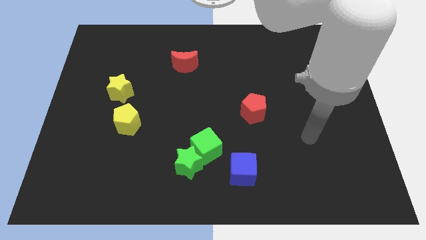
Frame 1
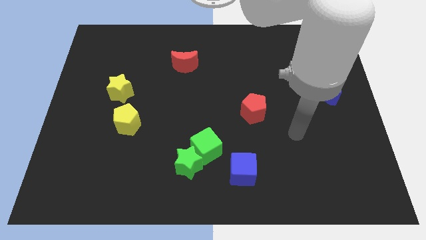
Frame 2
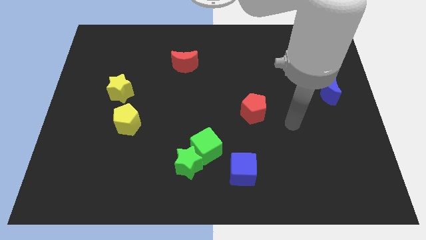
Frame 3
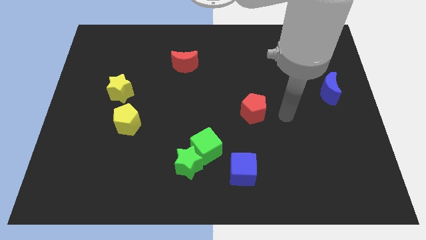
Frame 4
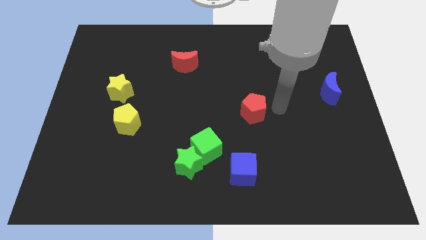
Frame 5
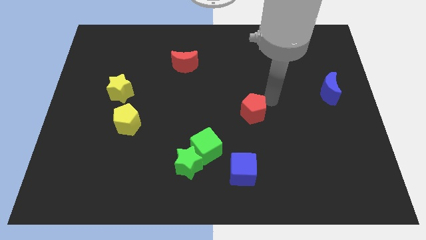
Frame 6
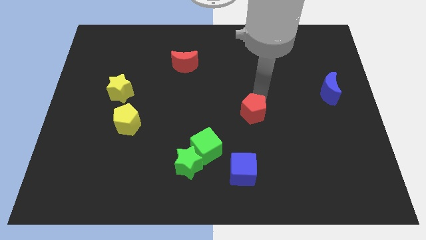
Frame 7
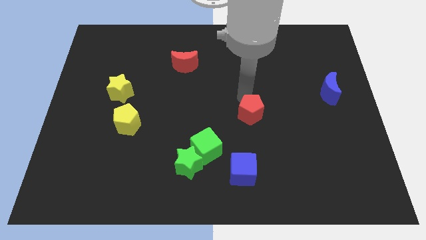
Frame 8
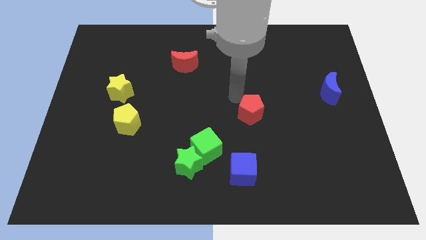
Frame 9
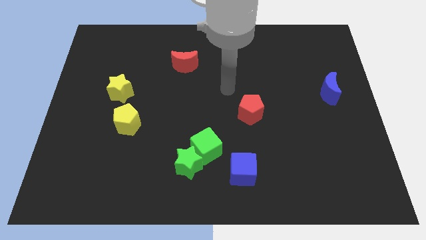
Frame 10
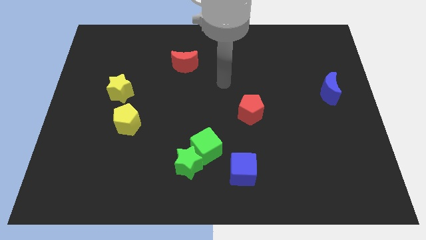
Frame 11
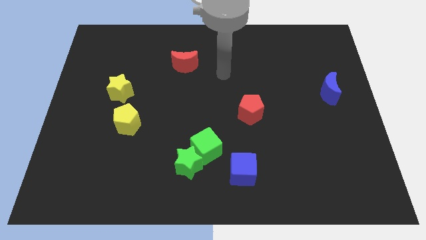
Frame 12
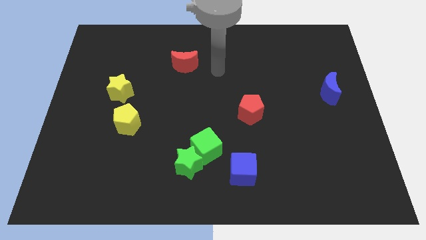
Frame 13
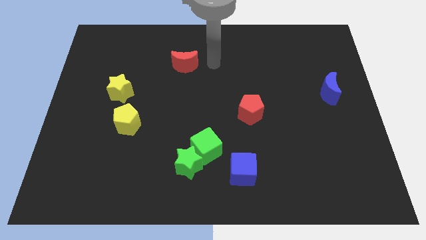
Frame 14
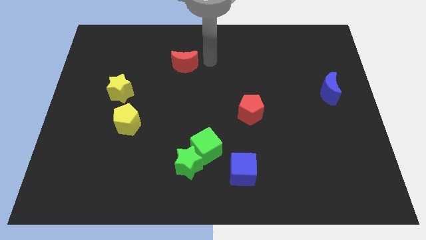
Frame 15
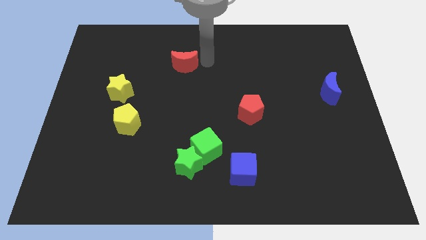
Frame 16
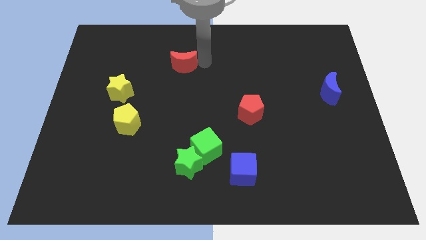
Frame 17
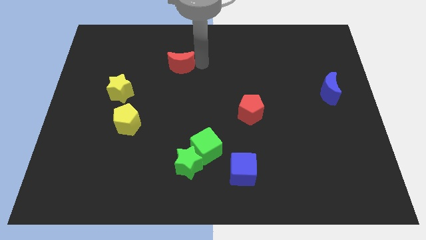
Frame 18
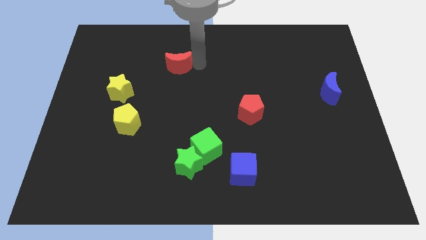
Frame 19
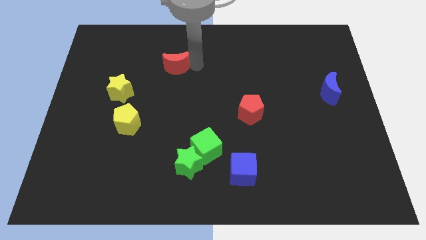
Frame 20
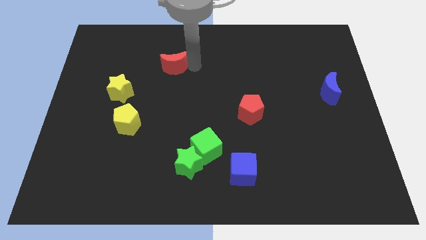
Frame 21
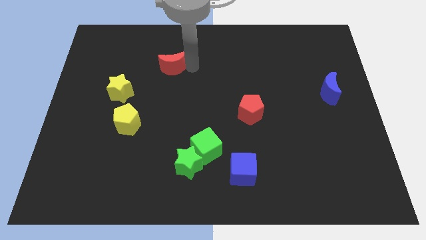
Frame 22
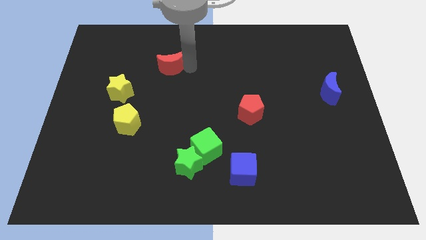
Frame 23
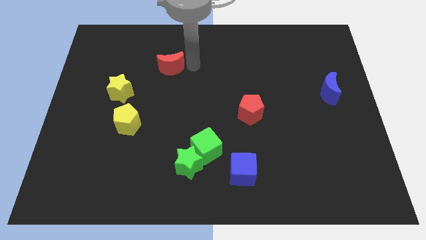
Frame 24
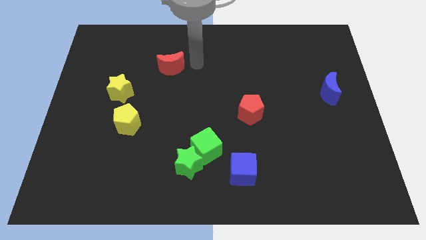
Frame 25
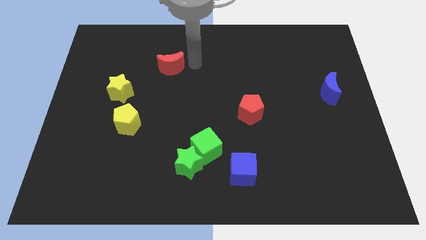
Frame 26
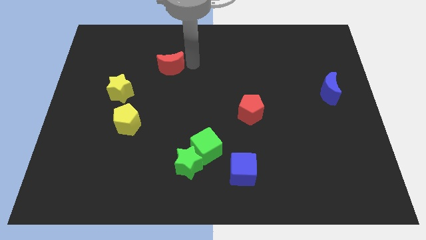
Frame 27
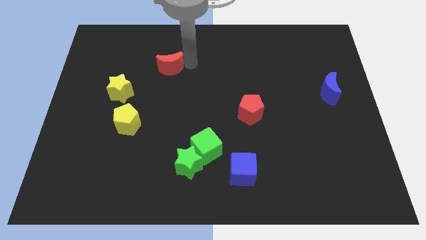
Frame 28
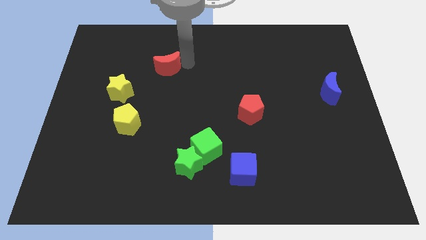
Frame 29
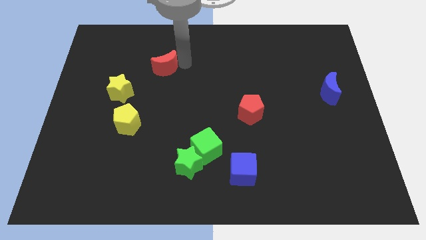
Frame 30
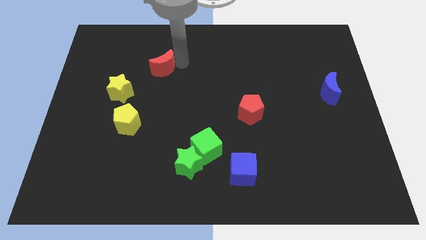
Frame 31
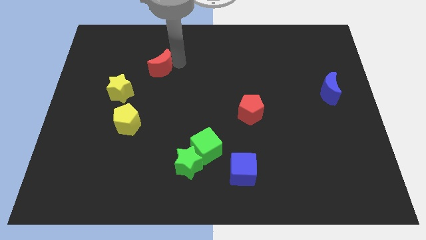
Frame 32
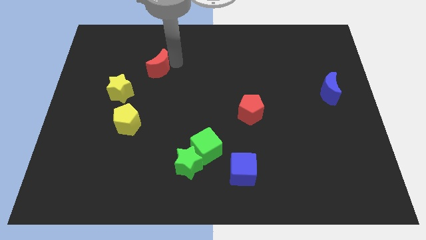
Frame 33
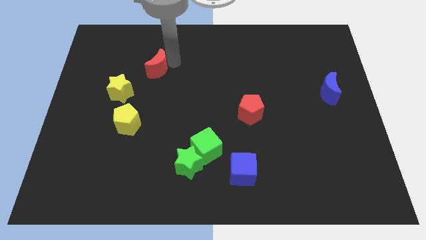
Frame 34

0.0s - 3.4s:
slide the red moon left a bit

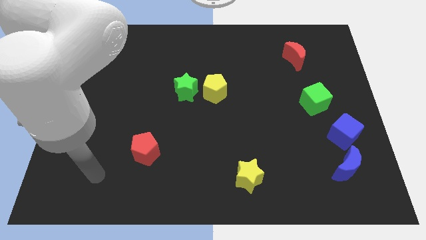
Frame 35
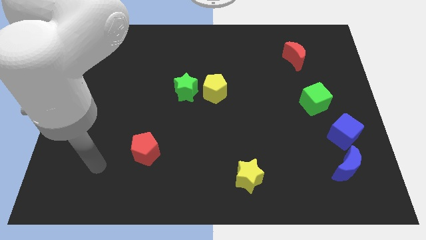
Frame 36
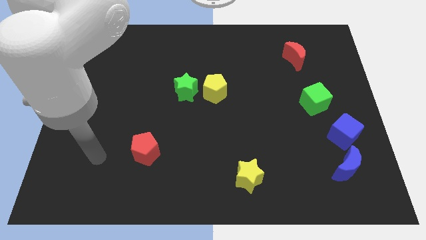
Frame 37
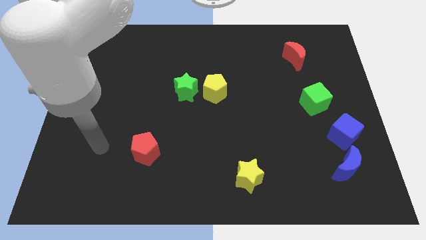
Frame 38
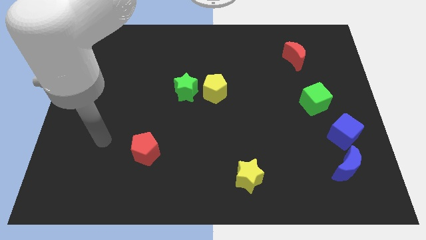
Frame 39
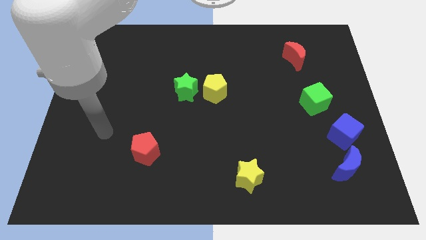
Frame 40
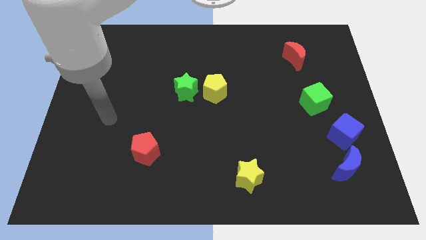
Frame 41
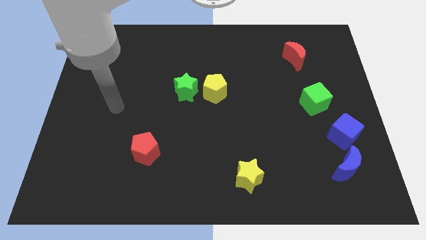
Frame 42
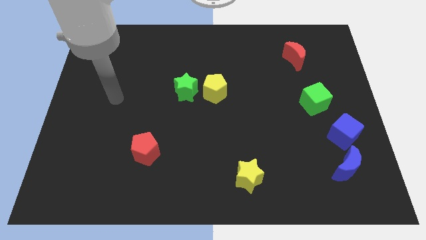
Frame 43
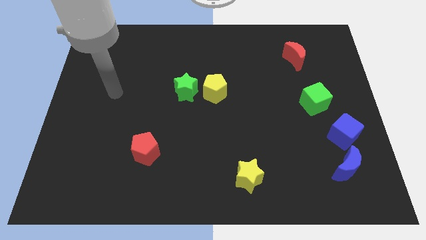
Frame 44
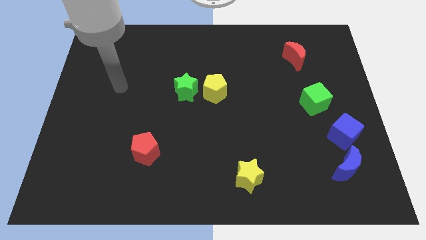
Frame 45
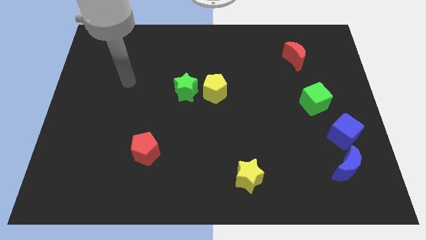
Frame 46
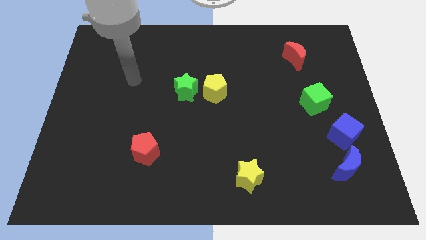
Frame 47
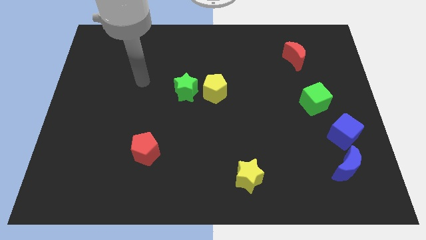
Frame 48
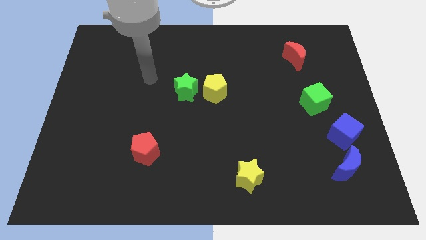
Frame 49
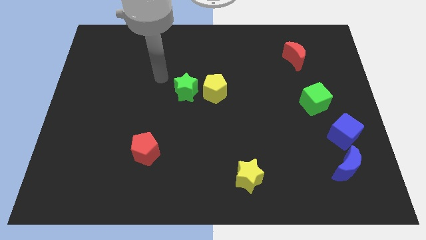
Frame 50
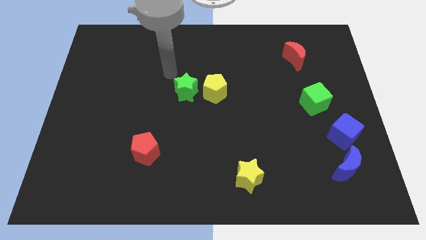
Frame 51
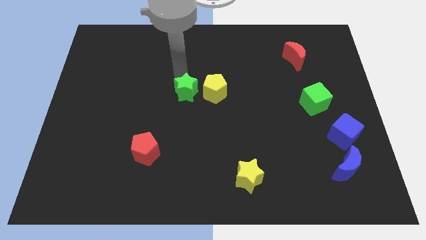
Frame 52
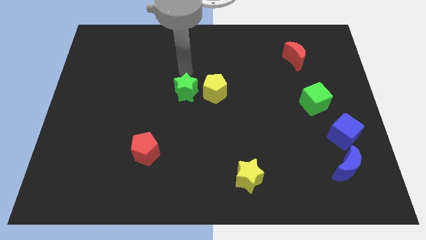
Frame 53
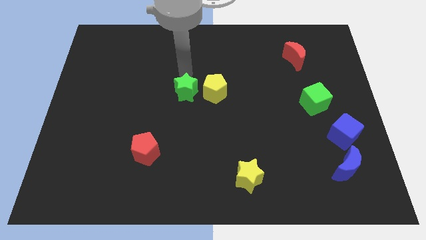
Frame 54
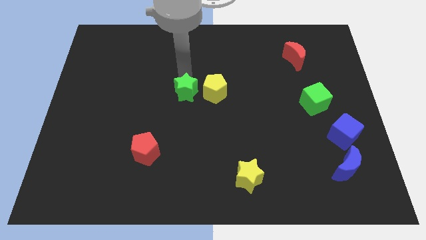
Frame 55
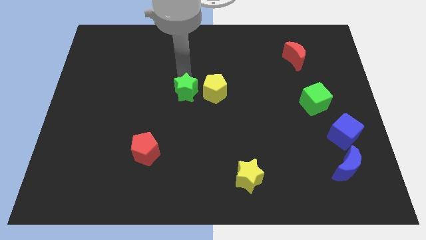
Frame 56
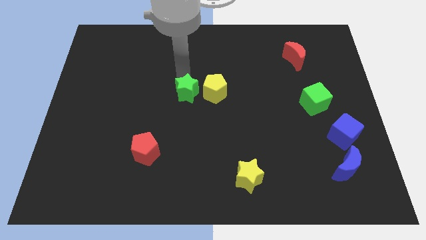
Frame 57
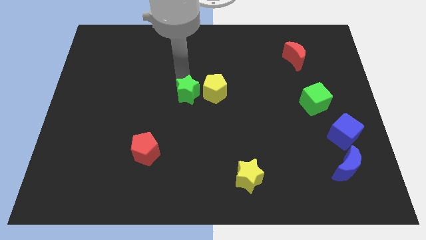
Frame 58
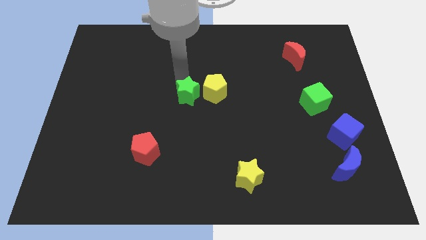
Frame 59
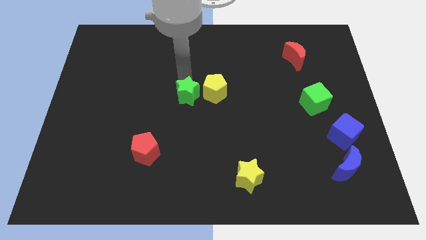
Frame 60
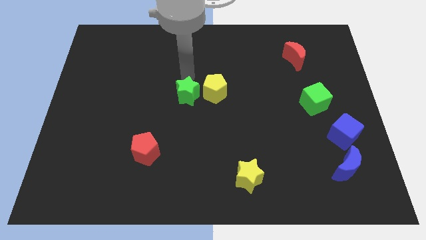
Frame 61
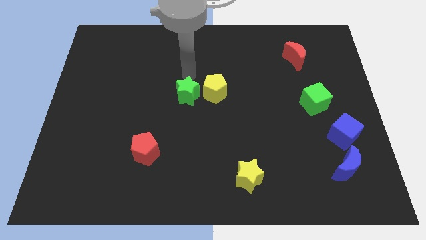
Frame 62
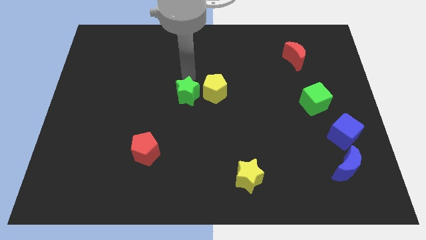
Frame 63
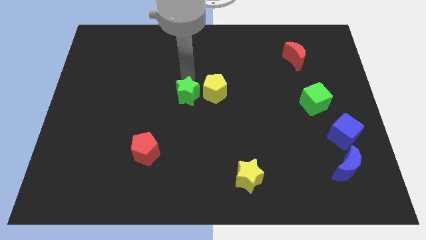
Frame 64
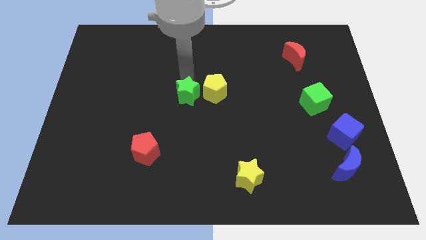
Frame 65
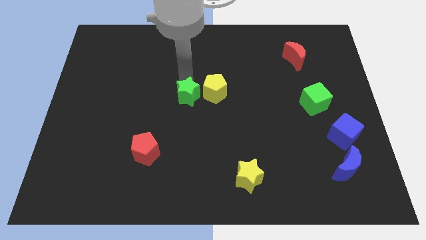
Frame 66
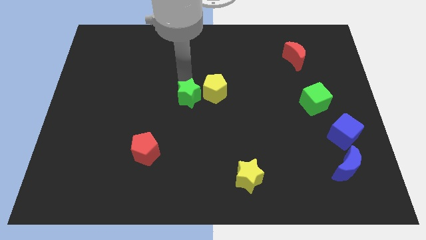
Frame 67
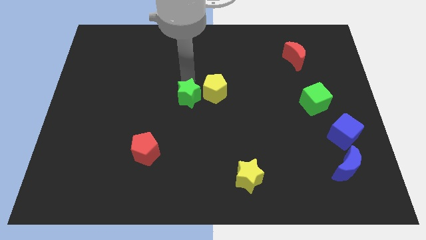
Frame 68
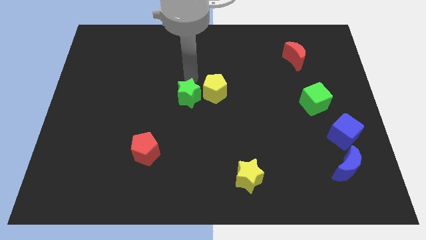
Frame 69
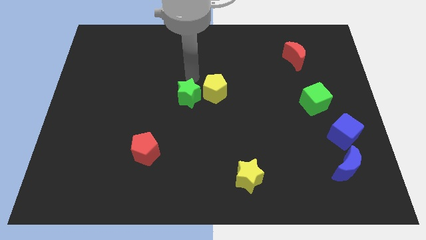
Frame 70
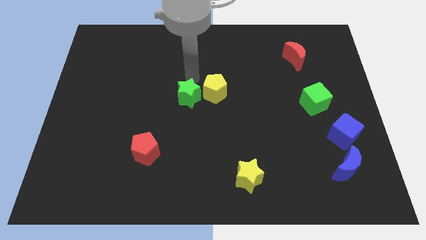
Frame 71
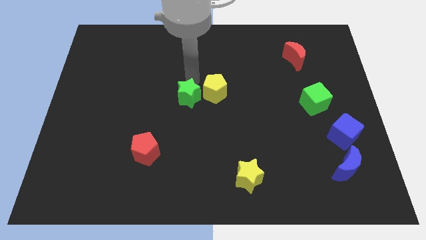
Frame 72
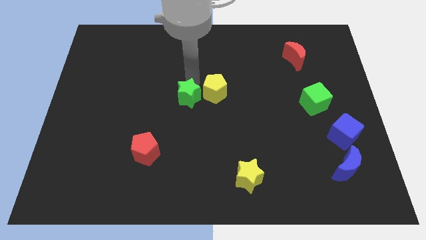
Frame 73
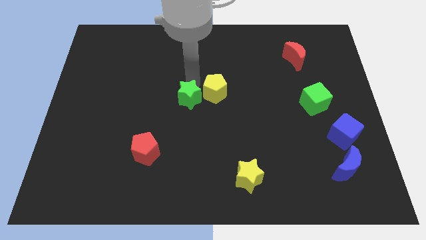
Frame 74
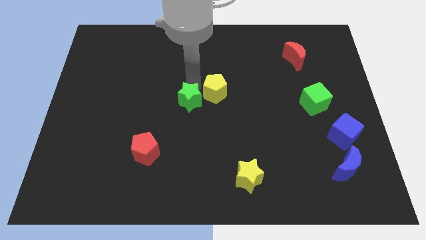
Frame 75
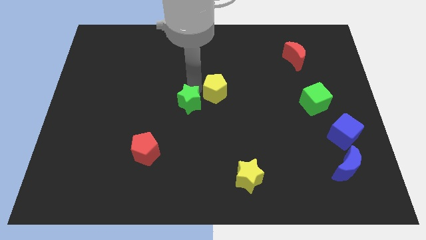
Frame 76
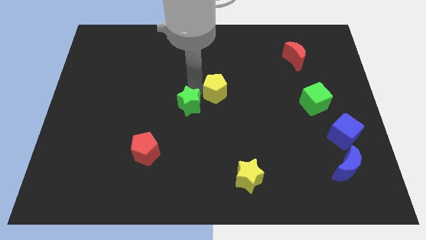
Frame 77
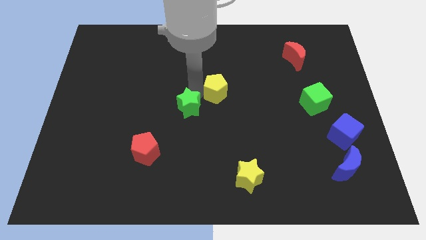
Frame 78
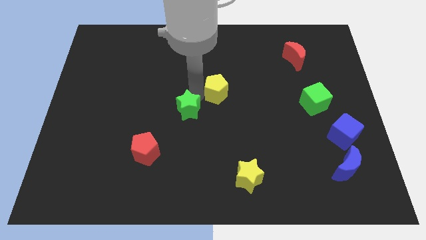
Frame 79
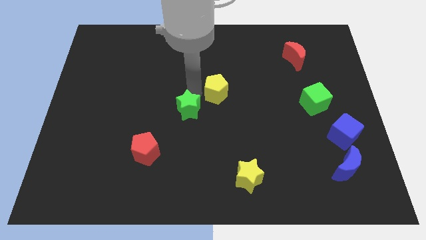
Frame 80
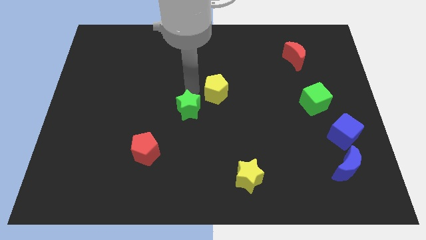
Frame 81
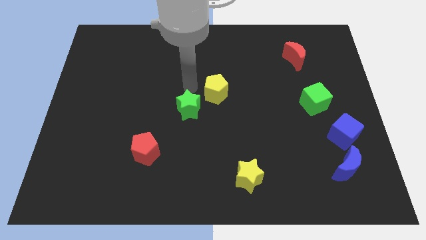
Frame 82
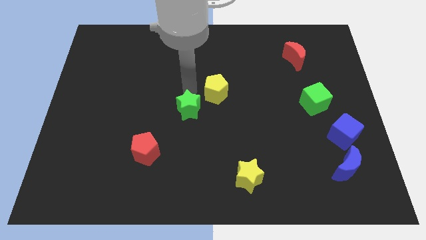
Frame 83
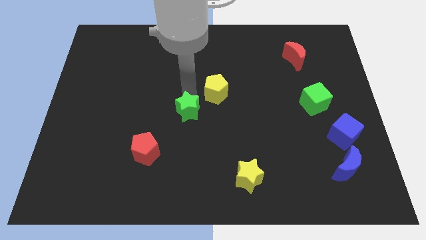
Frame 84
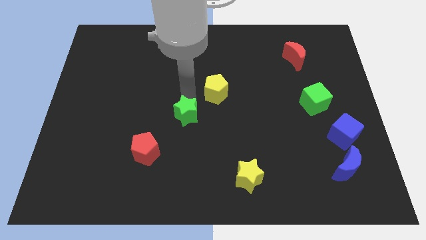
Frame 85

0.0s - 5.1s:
slightly push the green star downwards
